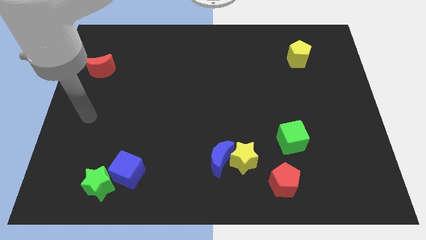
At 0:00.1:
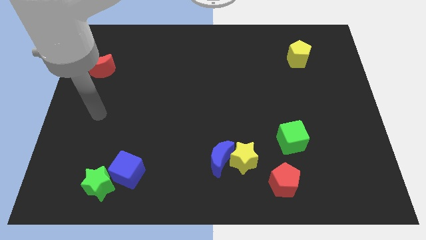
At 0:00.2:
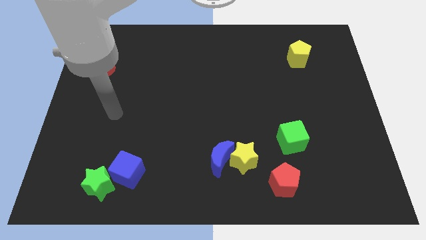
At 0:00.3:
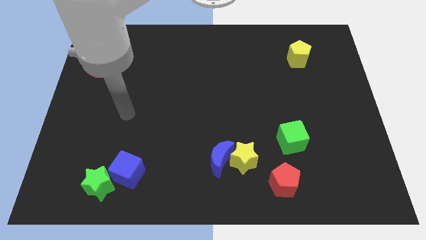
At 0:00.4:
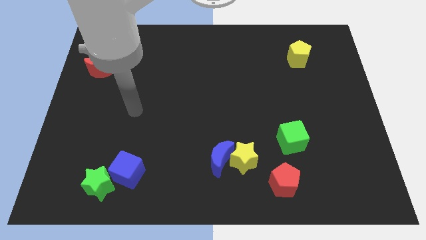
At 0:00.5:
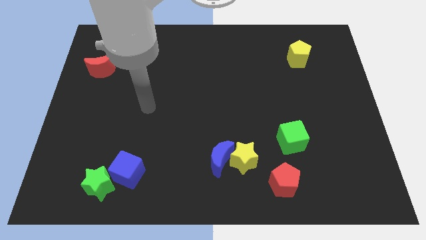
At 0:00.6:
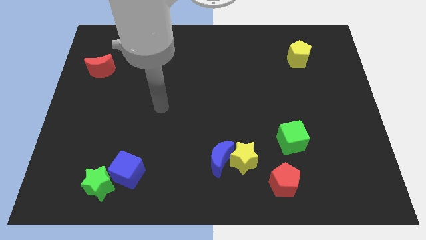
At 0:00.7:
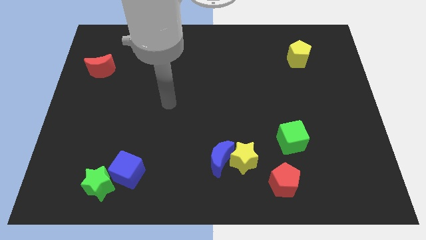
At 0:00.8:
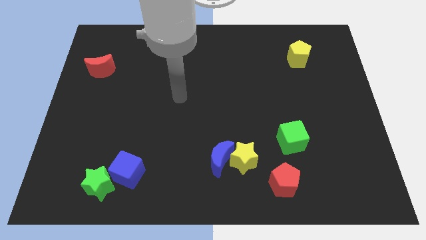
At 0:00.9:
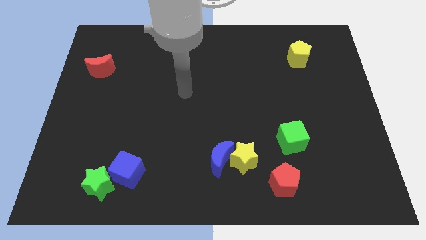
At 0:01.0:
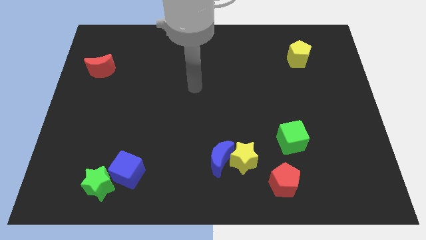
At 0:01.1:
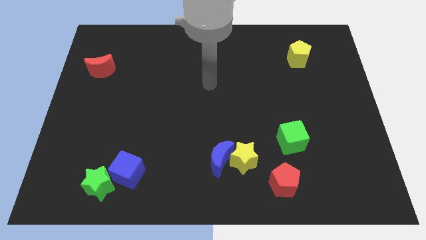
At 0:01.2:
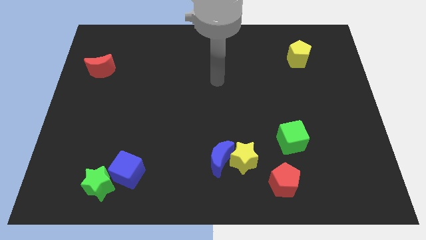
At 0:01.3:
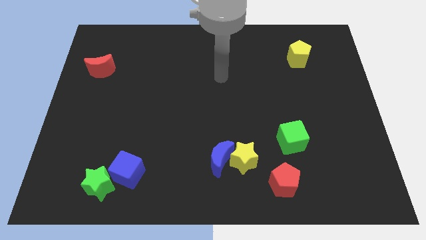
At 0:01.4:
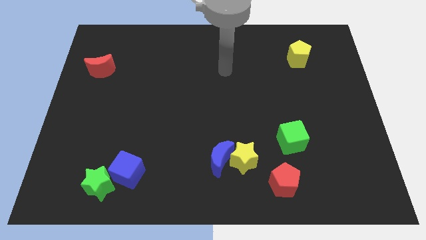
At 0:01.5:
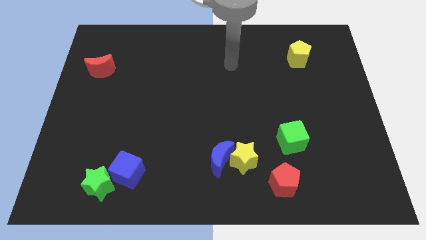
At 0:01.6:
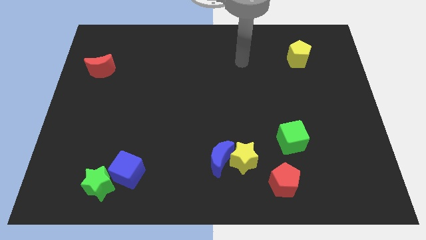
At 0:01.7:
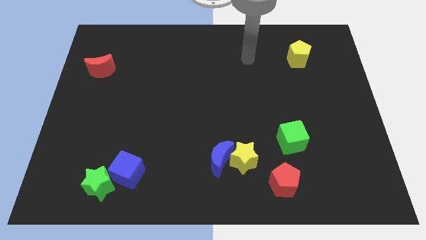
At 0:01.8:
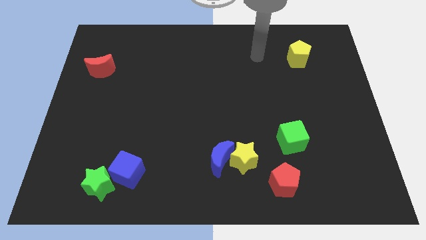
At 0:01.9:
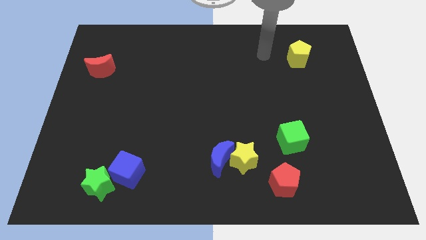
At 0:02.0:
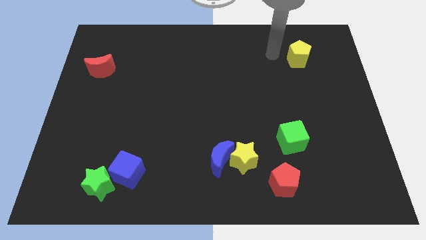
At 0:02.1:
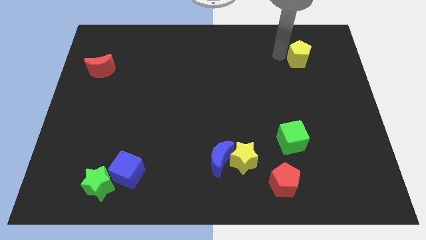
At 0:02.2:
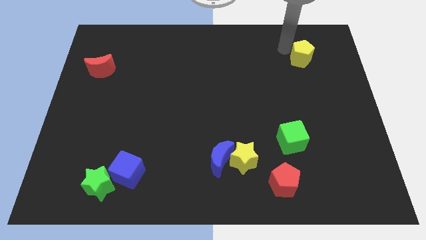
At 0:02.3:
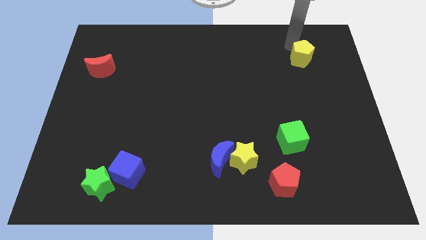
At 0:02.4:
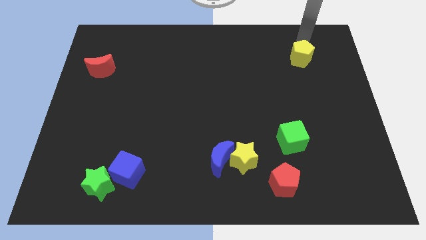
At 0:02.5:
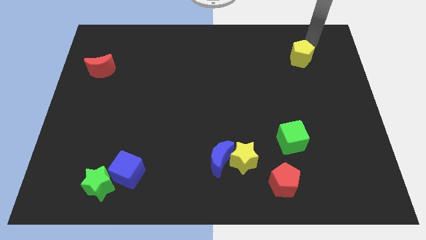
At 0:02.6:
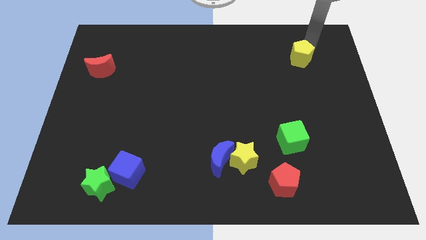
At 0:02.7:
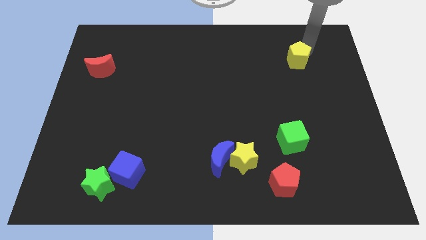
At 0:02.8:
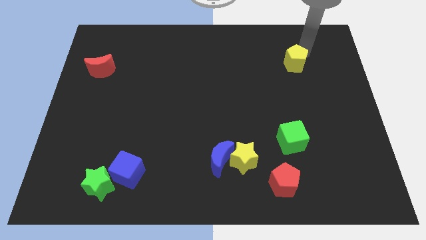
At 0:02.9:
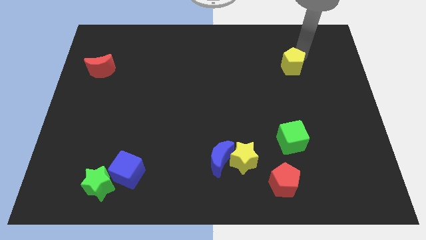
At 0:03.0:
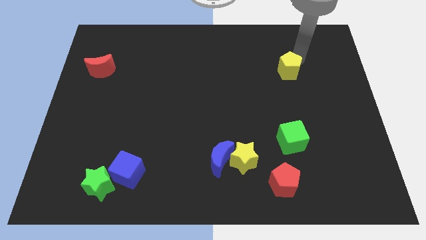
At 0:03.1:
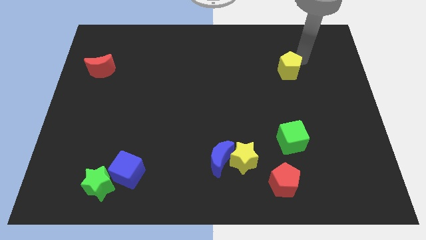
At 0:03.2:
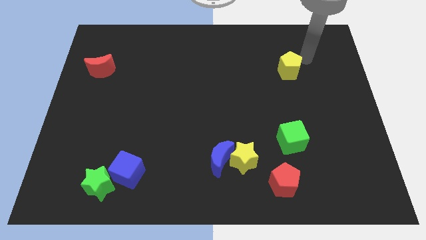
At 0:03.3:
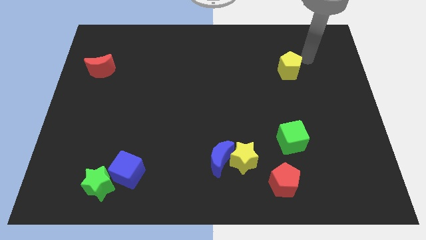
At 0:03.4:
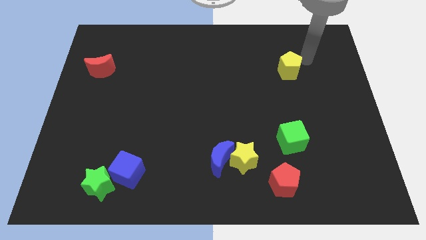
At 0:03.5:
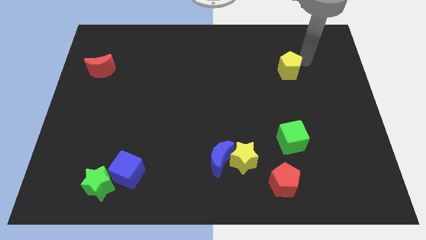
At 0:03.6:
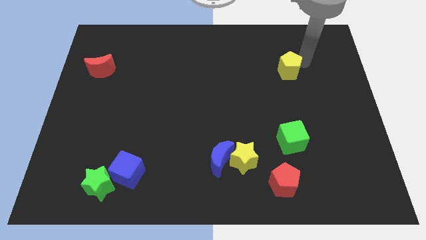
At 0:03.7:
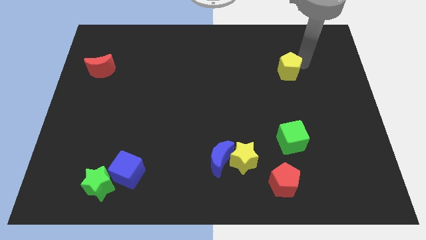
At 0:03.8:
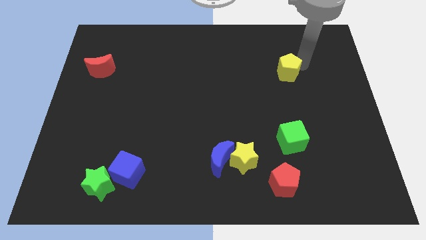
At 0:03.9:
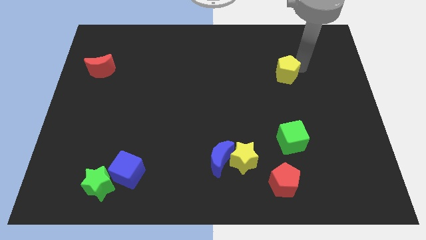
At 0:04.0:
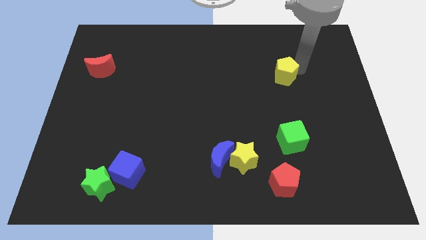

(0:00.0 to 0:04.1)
slide the yellow pentagon downwards and left diagonally a little bit

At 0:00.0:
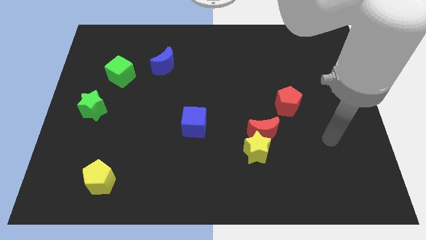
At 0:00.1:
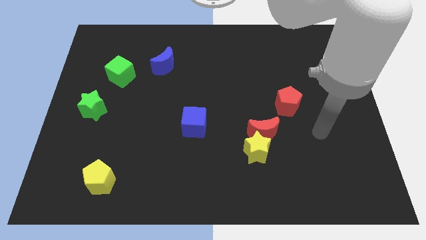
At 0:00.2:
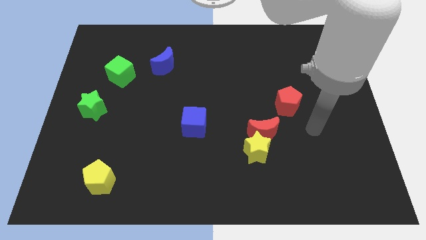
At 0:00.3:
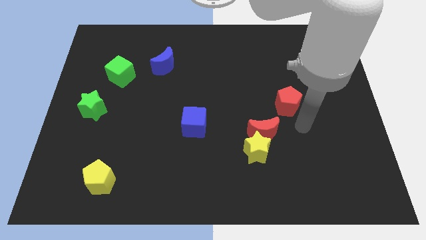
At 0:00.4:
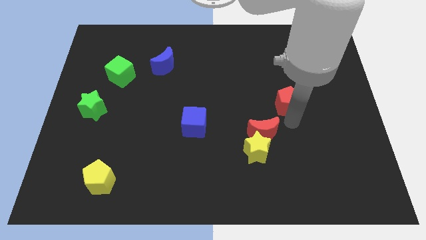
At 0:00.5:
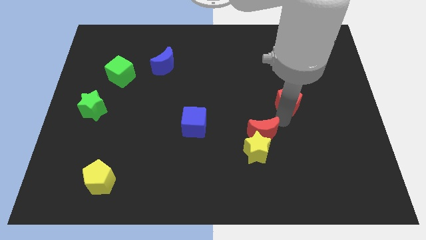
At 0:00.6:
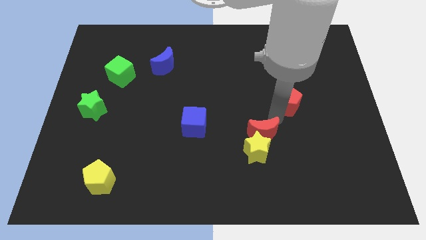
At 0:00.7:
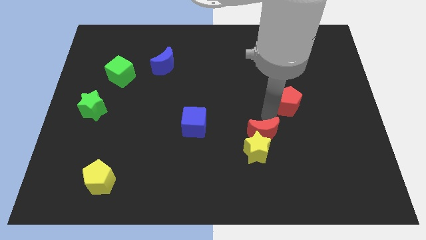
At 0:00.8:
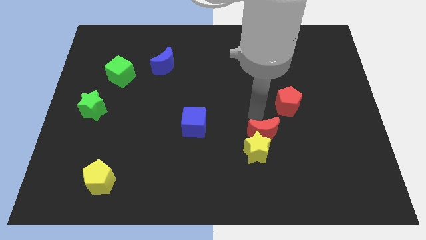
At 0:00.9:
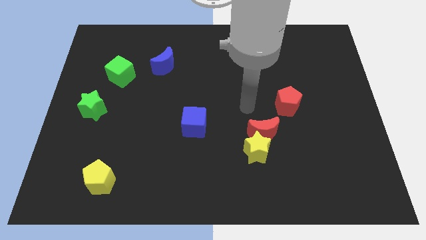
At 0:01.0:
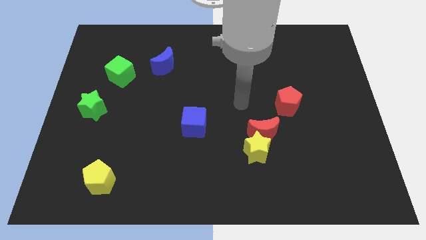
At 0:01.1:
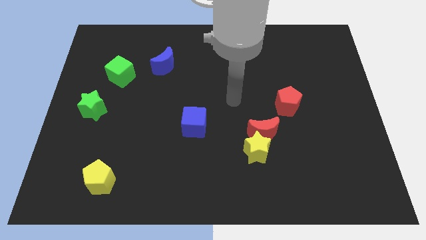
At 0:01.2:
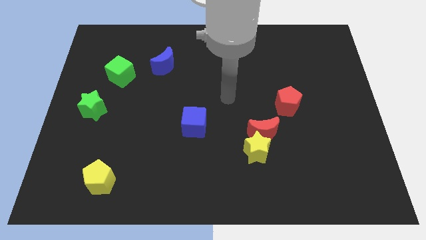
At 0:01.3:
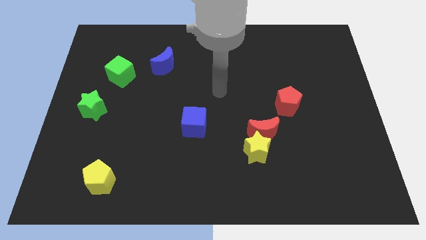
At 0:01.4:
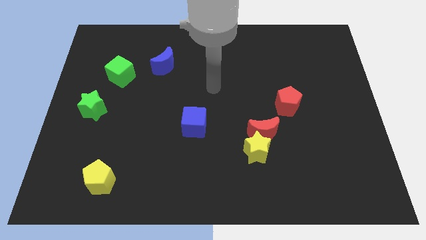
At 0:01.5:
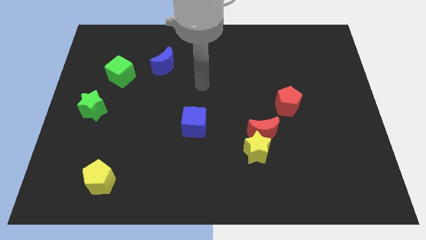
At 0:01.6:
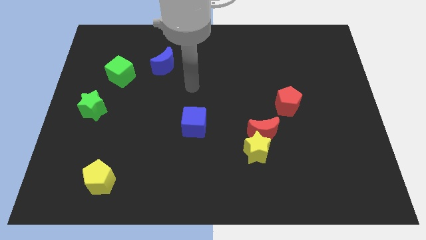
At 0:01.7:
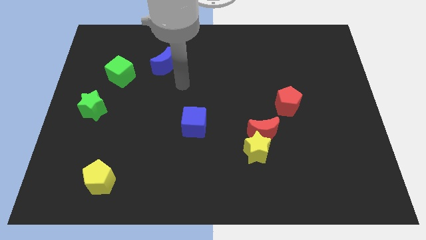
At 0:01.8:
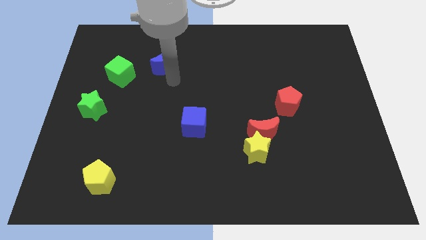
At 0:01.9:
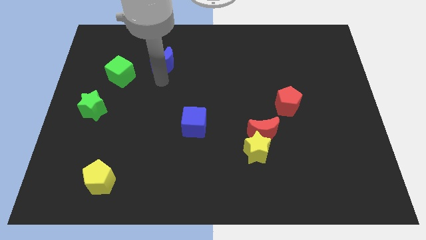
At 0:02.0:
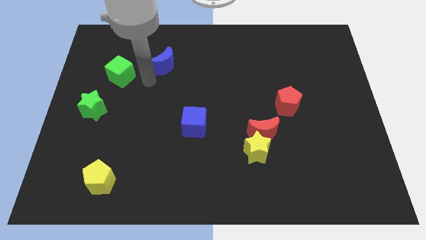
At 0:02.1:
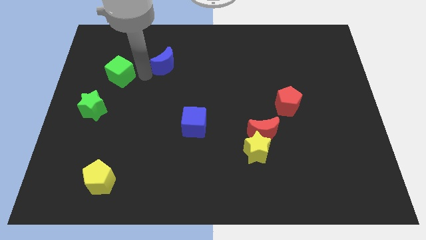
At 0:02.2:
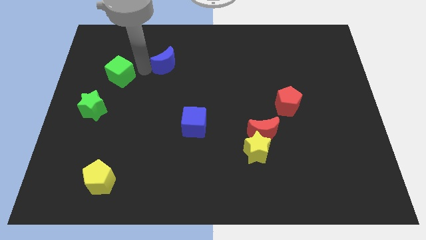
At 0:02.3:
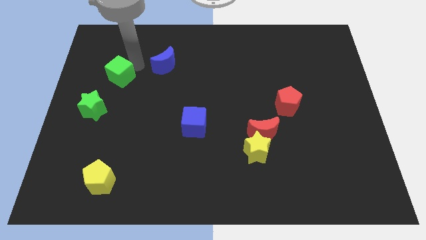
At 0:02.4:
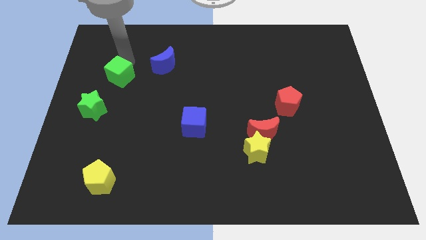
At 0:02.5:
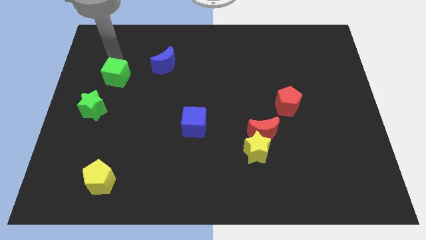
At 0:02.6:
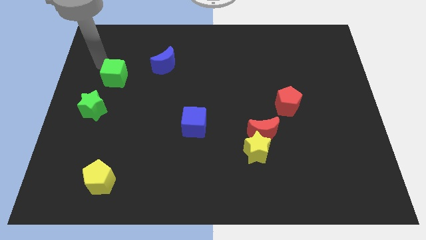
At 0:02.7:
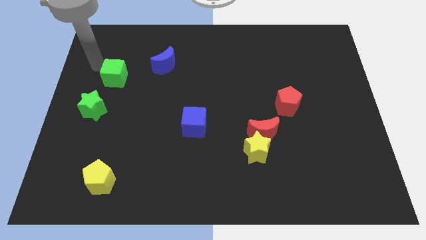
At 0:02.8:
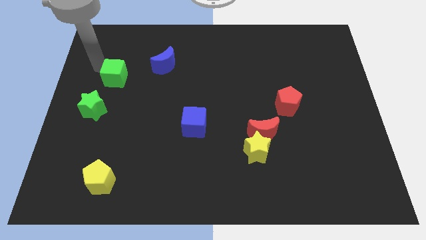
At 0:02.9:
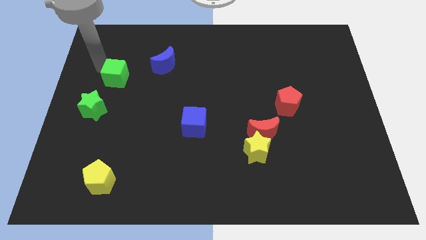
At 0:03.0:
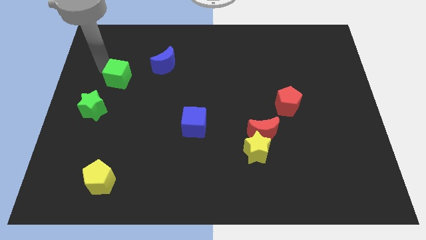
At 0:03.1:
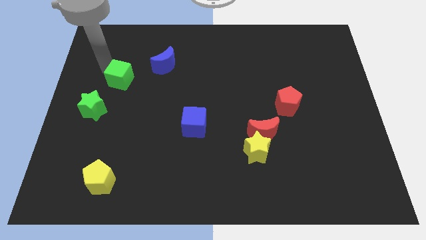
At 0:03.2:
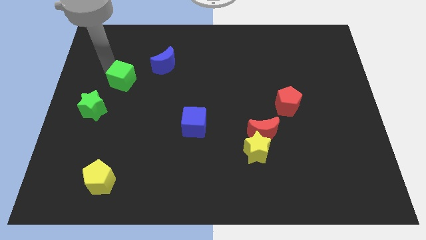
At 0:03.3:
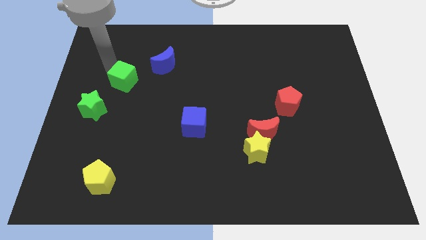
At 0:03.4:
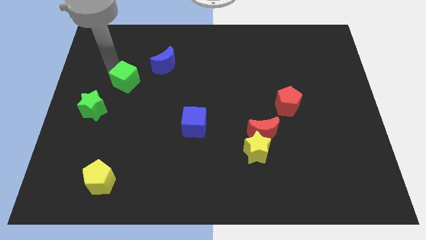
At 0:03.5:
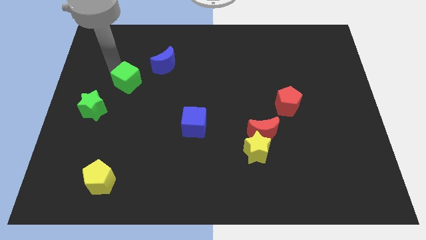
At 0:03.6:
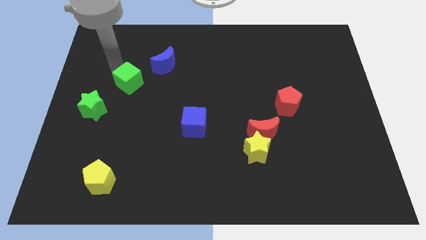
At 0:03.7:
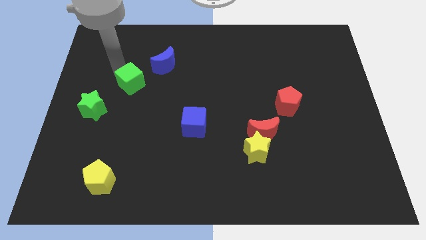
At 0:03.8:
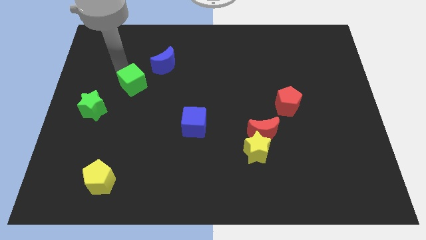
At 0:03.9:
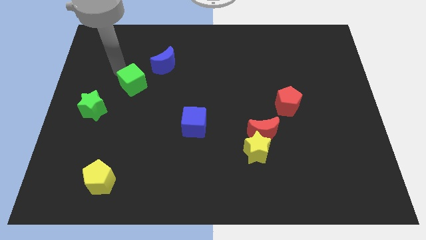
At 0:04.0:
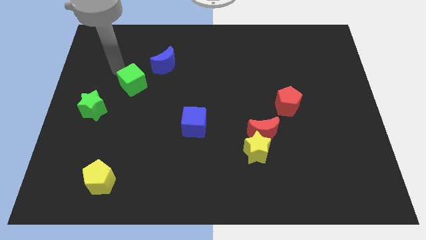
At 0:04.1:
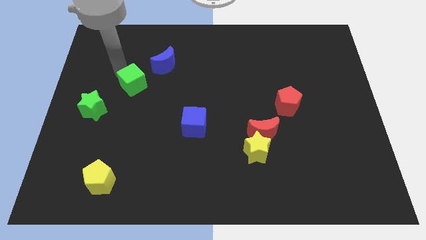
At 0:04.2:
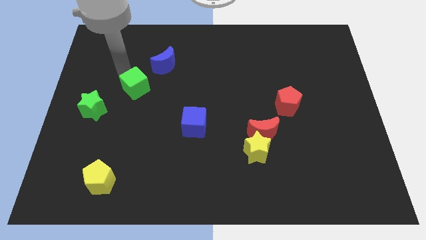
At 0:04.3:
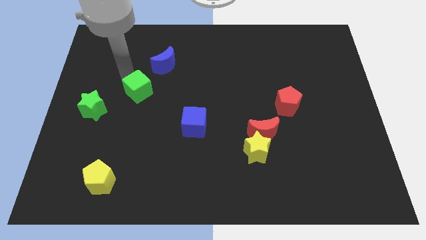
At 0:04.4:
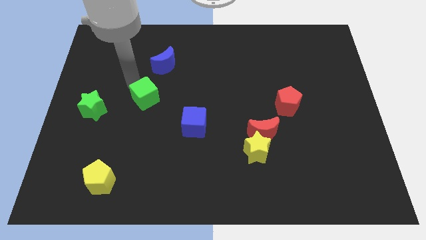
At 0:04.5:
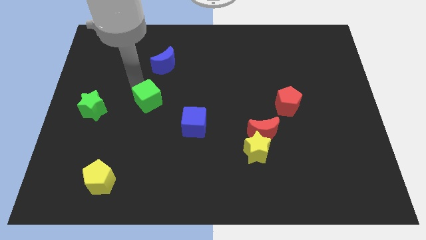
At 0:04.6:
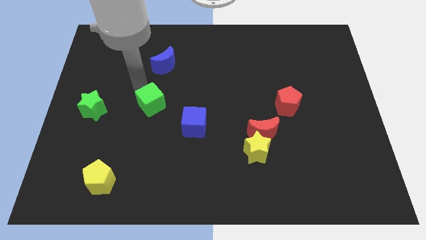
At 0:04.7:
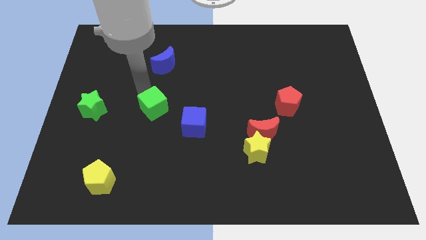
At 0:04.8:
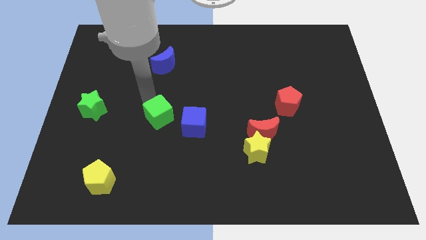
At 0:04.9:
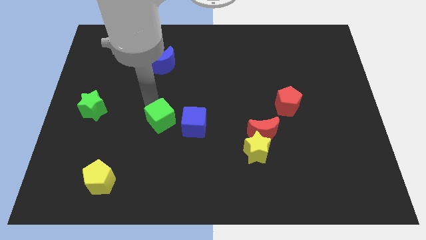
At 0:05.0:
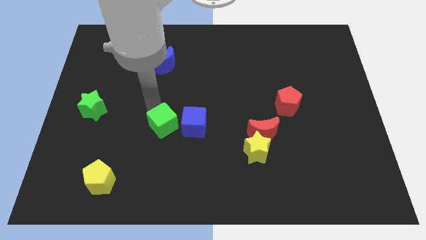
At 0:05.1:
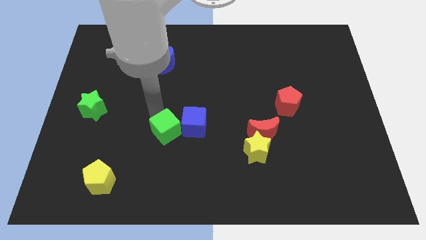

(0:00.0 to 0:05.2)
slide the green cube downwards and to the right diagonally
